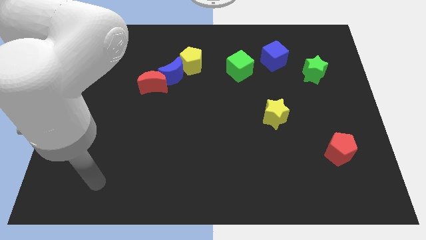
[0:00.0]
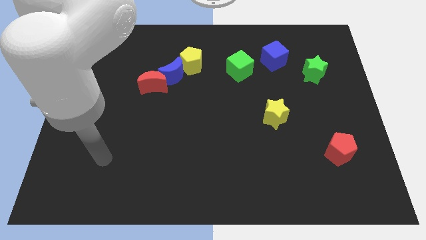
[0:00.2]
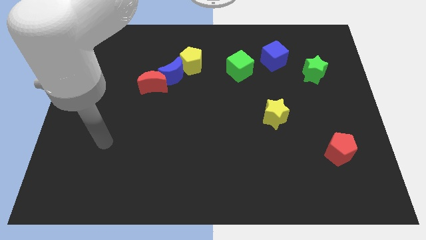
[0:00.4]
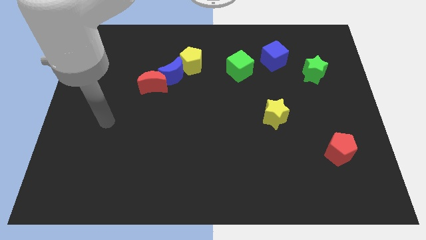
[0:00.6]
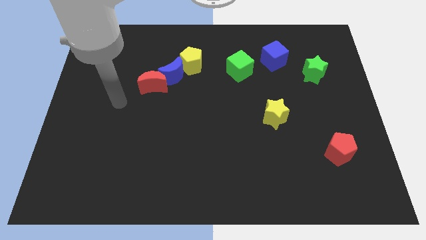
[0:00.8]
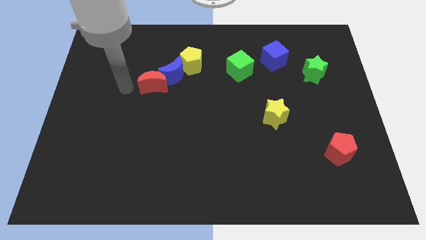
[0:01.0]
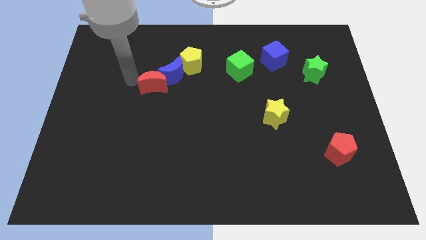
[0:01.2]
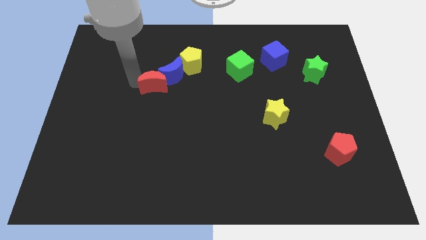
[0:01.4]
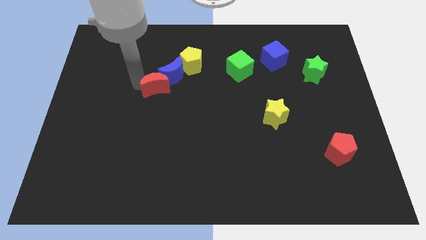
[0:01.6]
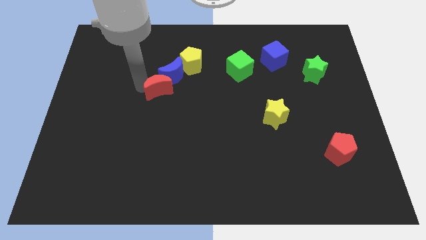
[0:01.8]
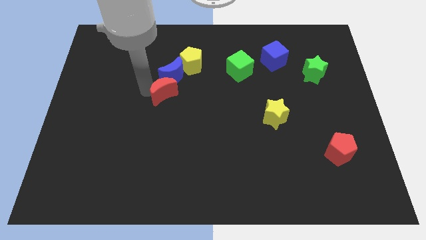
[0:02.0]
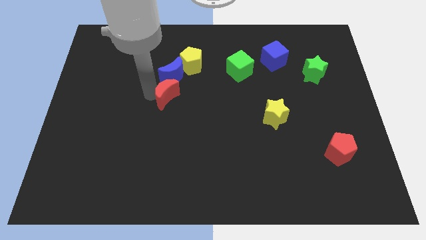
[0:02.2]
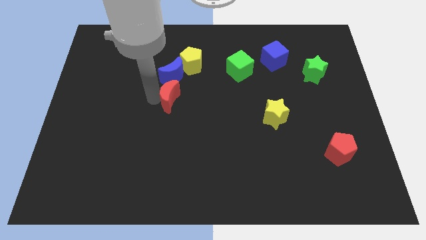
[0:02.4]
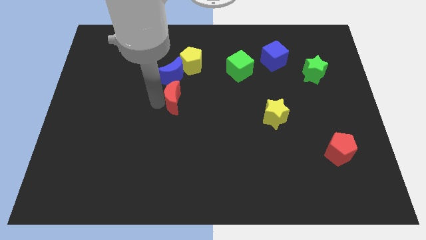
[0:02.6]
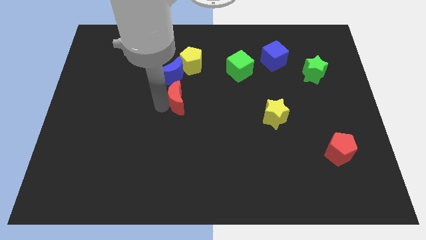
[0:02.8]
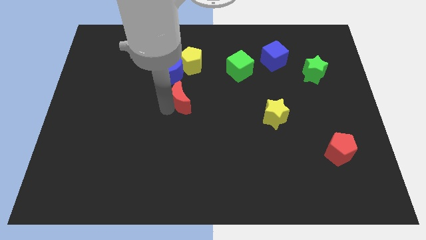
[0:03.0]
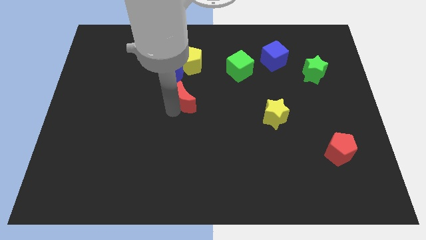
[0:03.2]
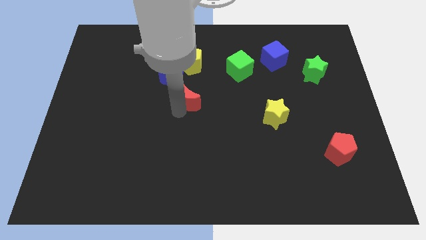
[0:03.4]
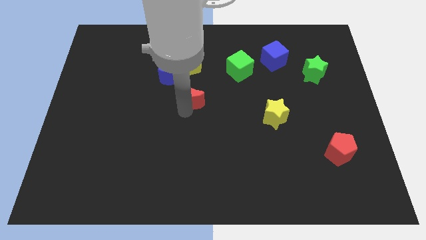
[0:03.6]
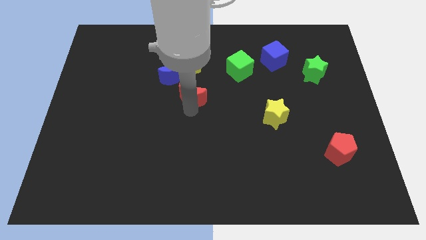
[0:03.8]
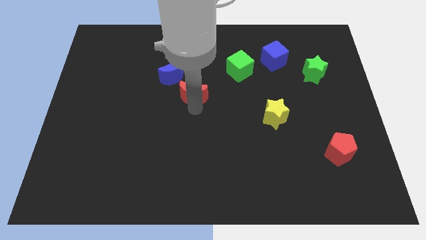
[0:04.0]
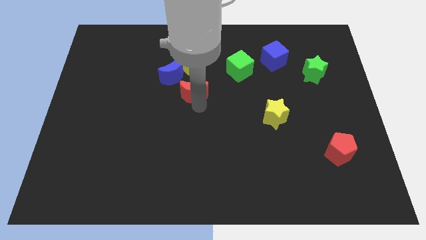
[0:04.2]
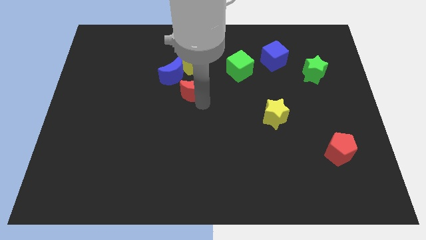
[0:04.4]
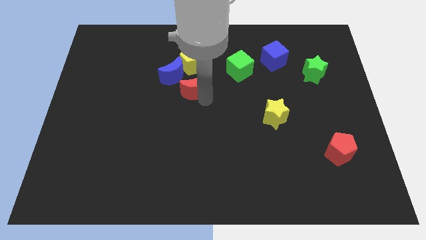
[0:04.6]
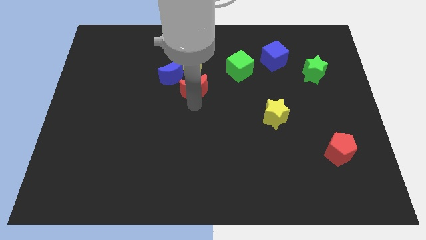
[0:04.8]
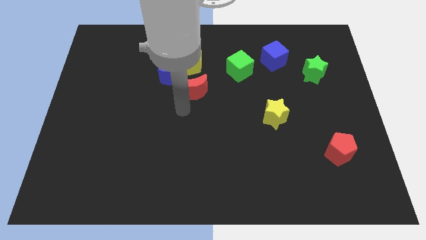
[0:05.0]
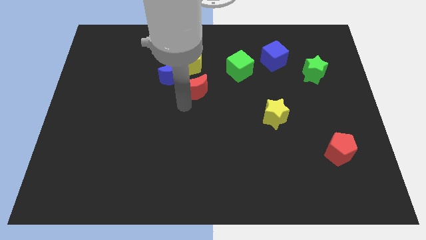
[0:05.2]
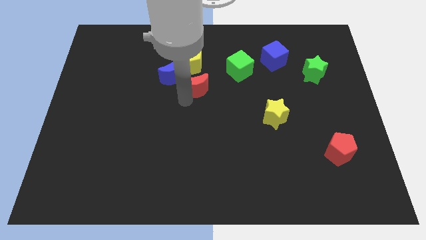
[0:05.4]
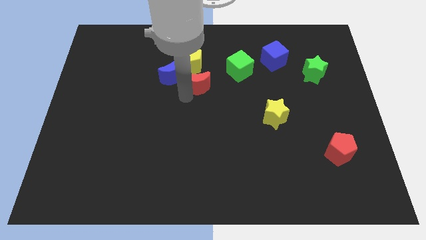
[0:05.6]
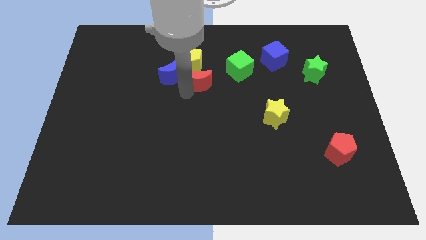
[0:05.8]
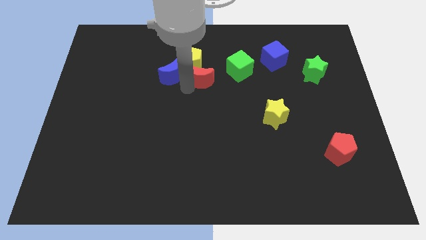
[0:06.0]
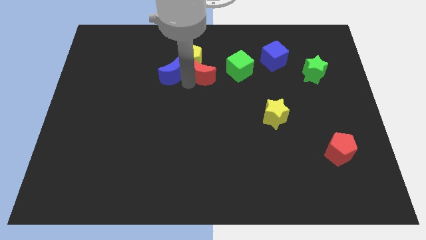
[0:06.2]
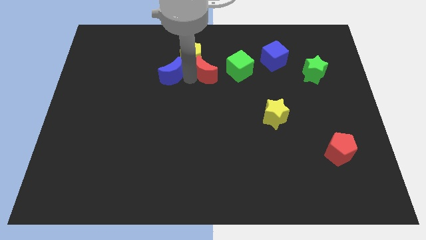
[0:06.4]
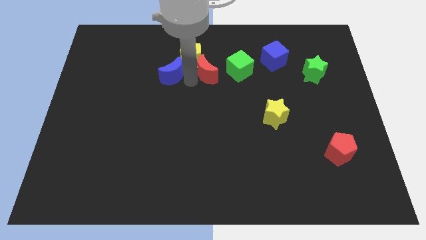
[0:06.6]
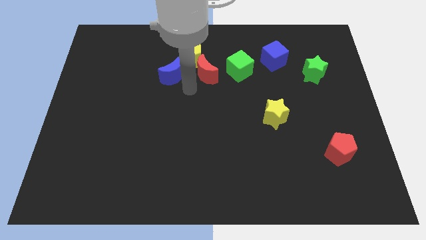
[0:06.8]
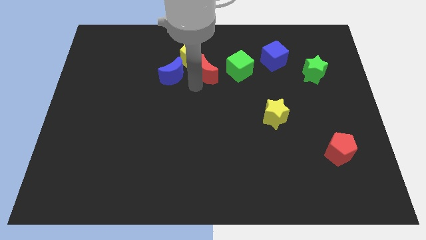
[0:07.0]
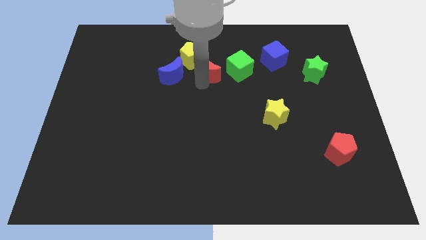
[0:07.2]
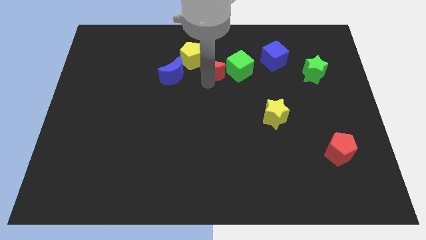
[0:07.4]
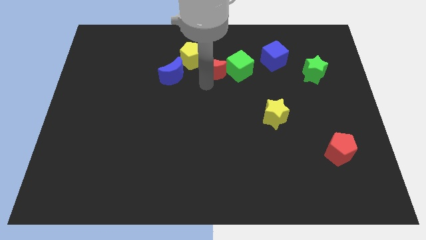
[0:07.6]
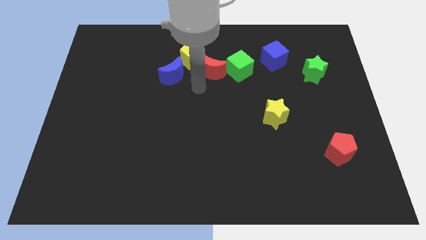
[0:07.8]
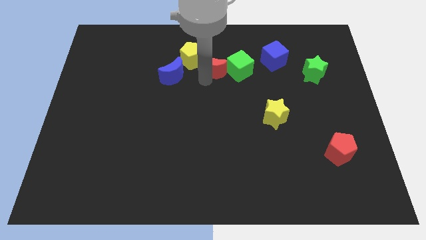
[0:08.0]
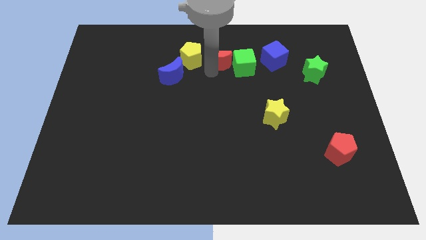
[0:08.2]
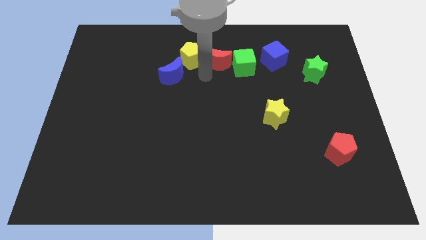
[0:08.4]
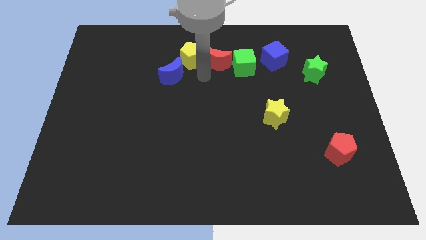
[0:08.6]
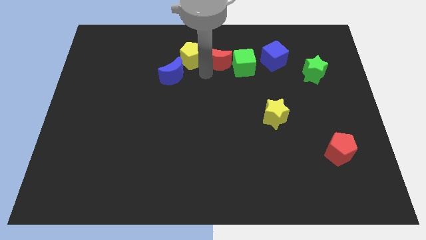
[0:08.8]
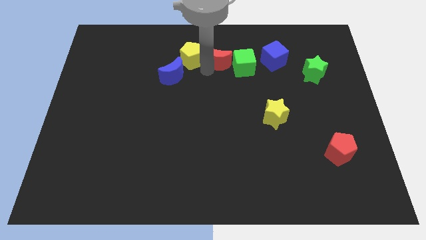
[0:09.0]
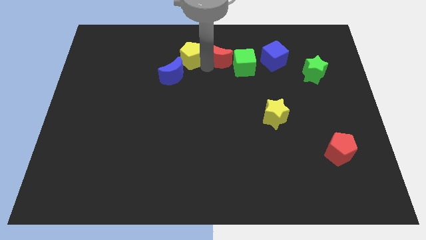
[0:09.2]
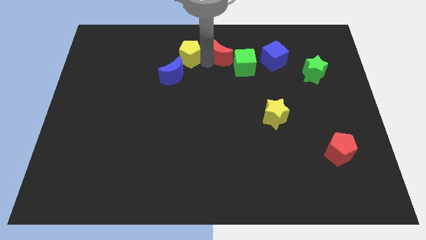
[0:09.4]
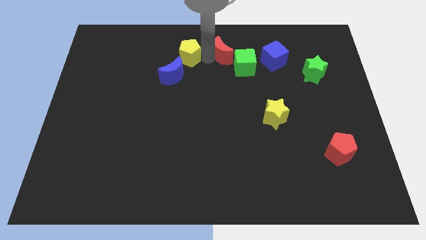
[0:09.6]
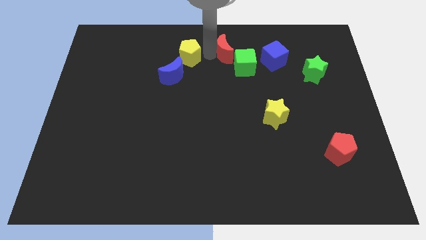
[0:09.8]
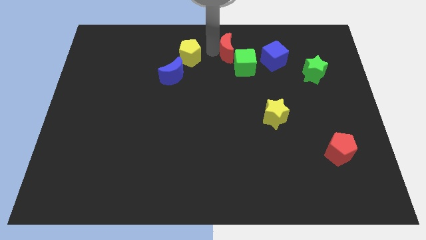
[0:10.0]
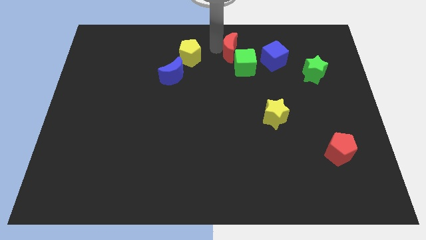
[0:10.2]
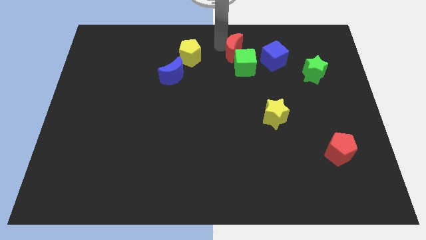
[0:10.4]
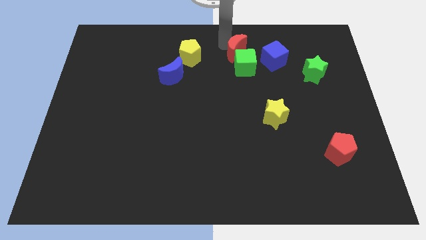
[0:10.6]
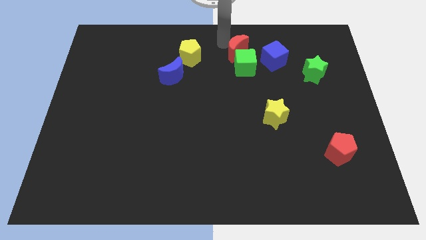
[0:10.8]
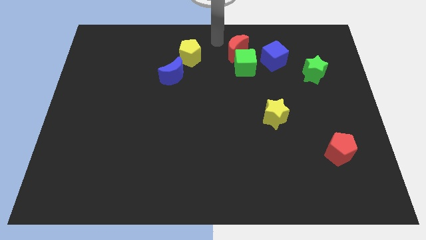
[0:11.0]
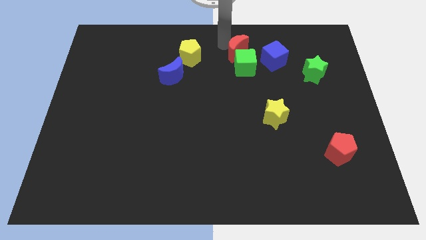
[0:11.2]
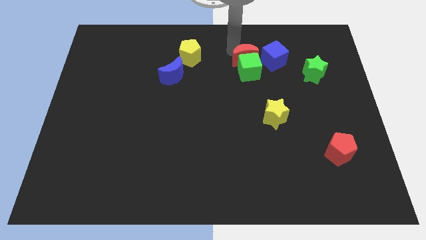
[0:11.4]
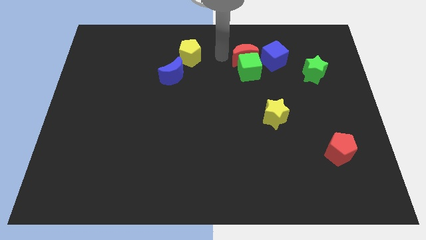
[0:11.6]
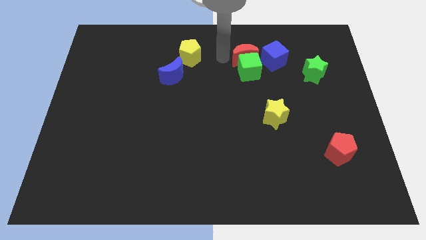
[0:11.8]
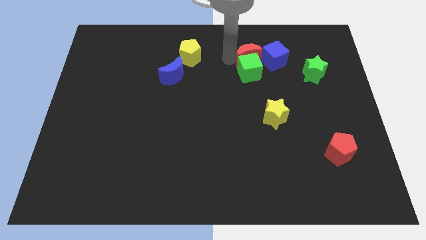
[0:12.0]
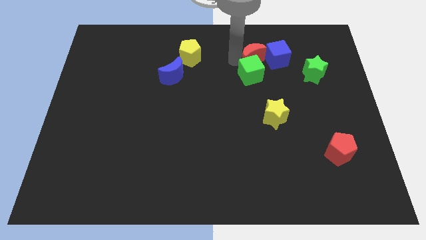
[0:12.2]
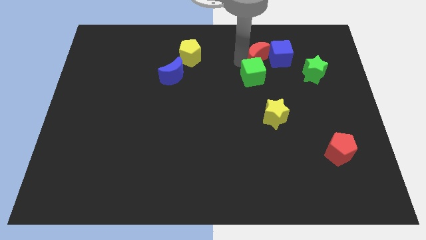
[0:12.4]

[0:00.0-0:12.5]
push the red moon towards the blue cube
